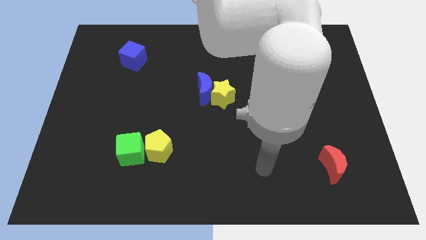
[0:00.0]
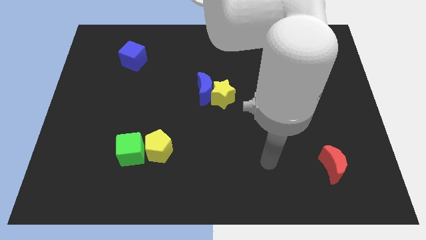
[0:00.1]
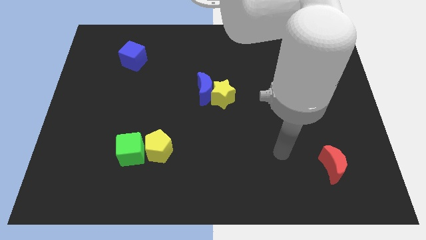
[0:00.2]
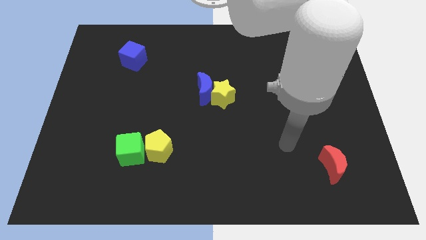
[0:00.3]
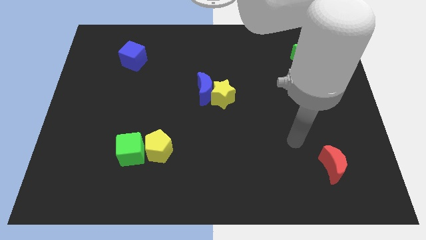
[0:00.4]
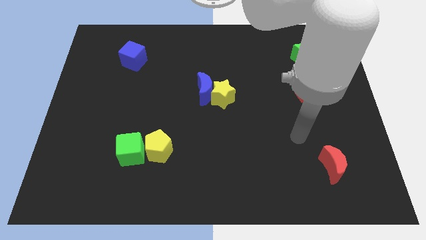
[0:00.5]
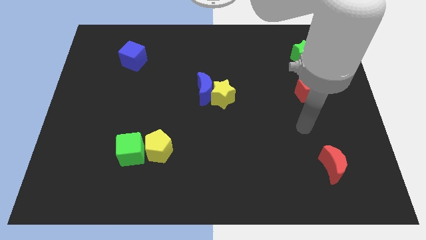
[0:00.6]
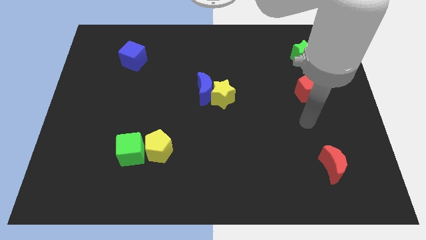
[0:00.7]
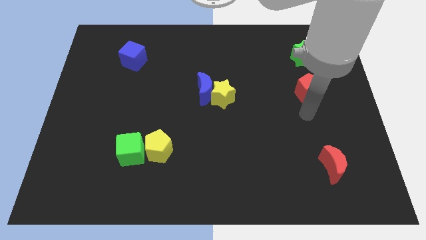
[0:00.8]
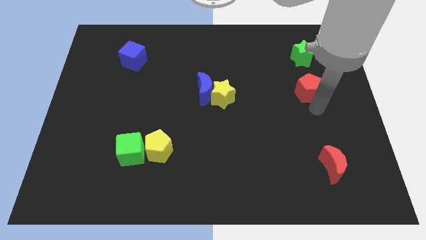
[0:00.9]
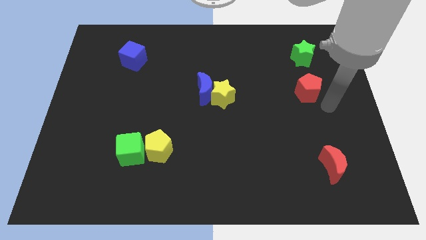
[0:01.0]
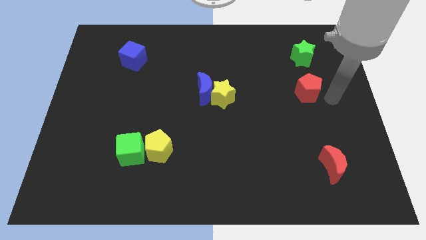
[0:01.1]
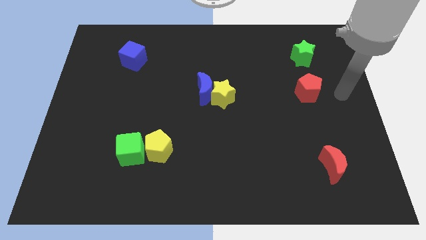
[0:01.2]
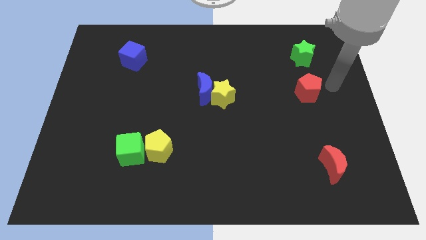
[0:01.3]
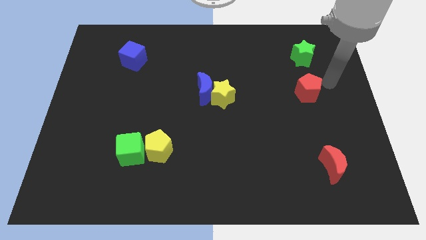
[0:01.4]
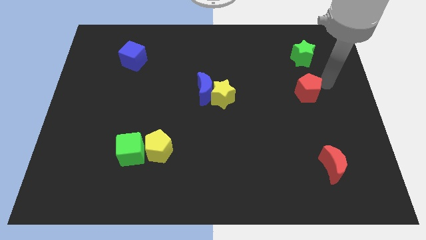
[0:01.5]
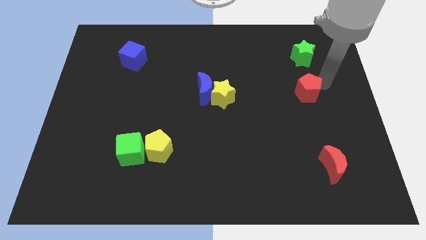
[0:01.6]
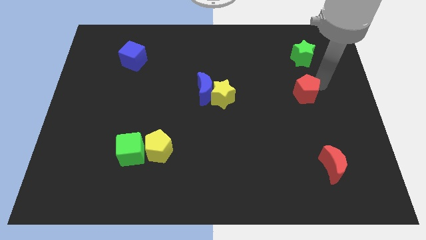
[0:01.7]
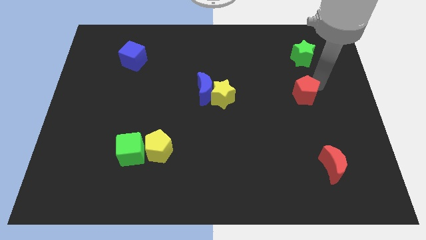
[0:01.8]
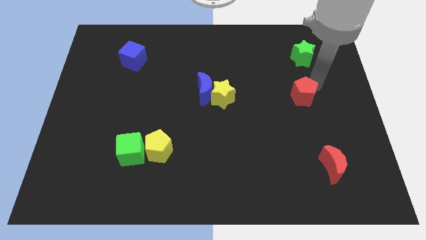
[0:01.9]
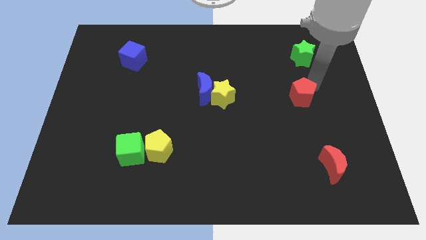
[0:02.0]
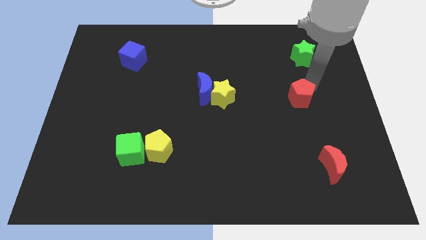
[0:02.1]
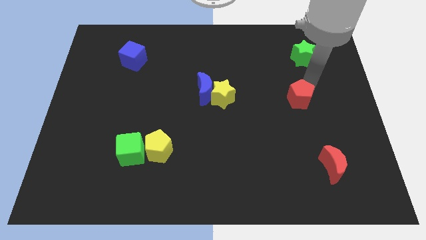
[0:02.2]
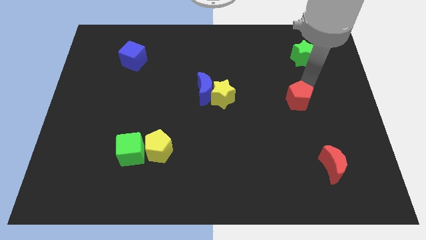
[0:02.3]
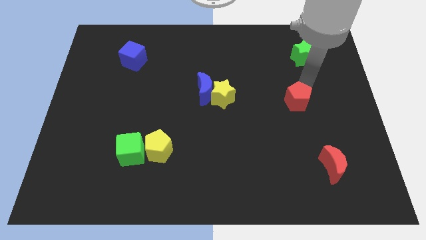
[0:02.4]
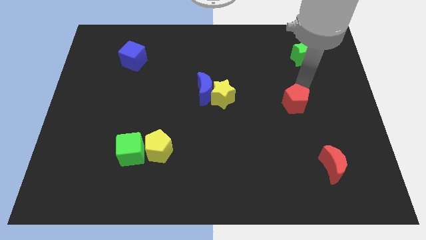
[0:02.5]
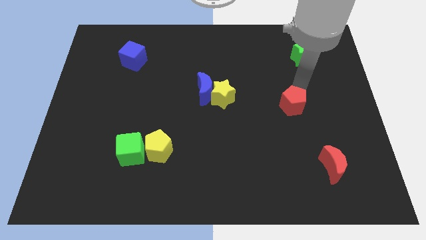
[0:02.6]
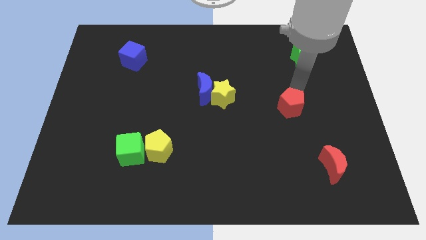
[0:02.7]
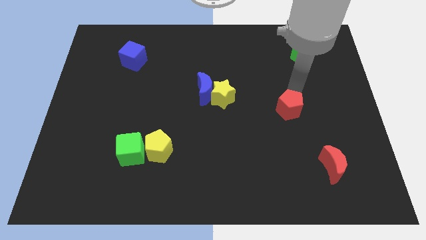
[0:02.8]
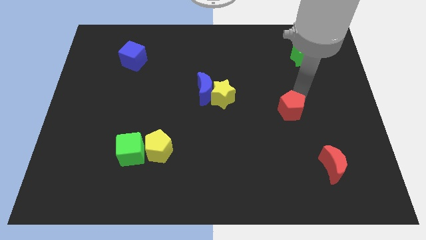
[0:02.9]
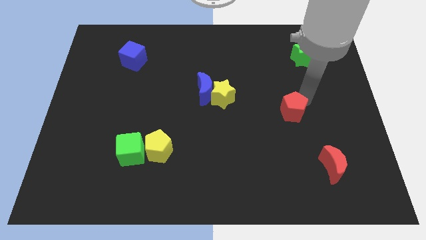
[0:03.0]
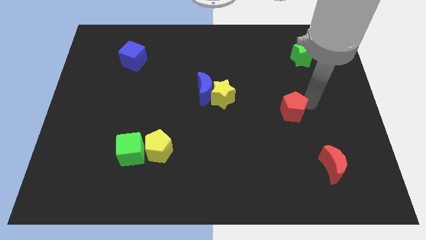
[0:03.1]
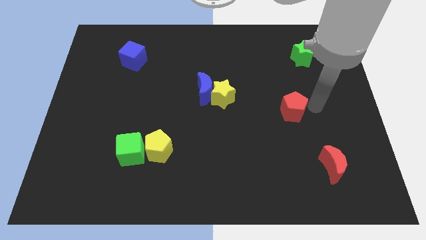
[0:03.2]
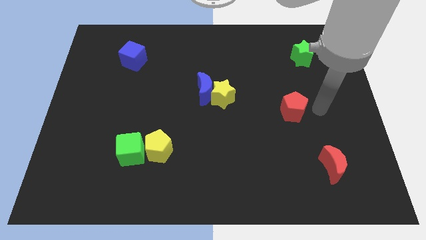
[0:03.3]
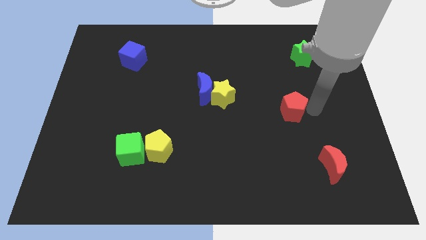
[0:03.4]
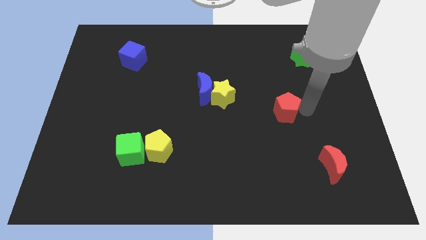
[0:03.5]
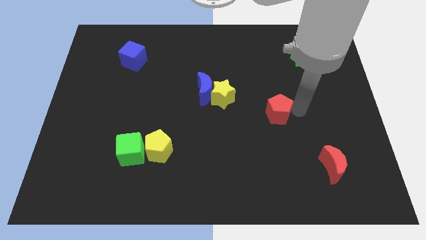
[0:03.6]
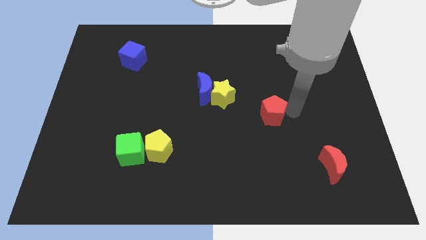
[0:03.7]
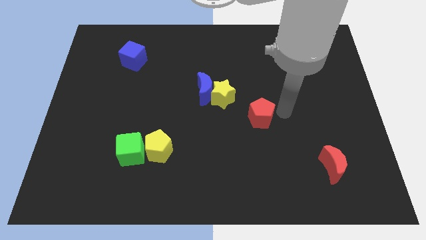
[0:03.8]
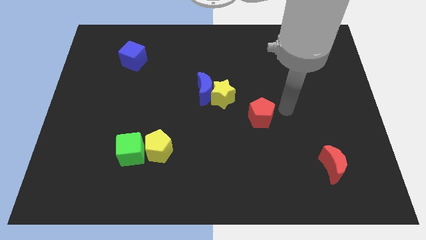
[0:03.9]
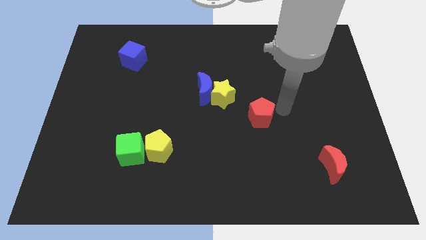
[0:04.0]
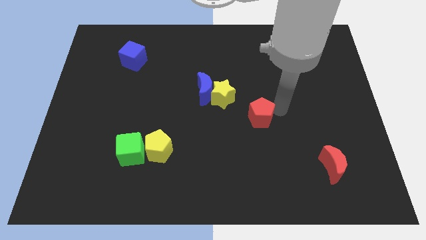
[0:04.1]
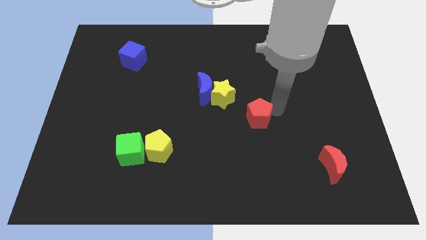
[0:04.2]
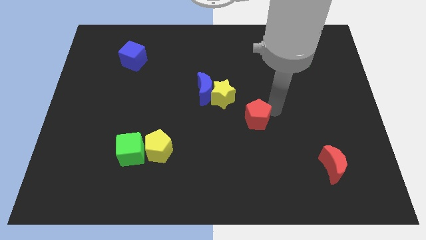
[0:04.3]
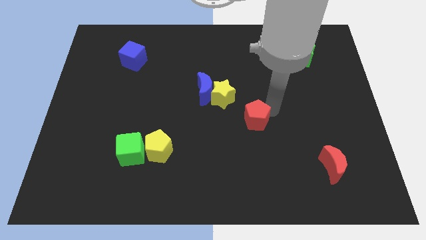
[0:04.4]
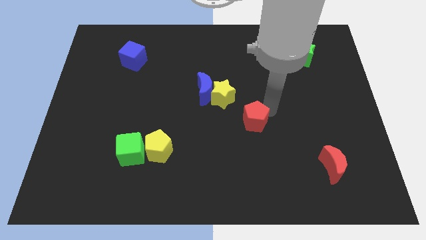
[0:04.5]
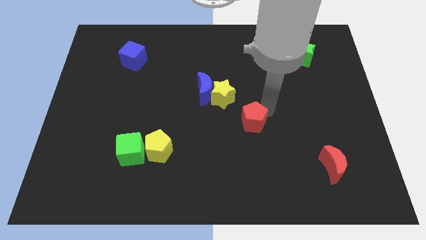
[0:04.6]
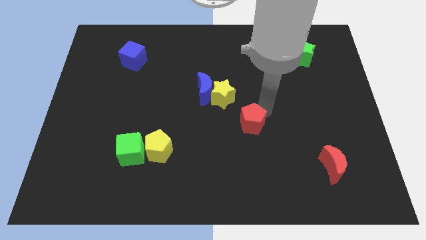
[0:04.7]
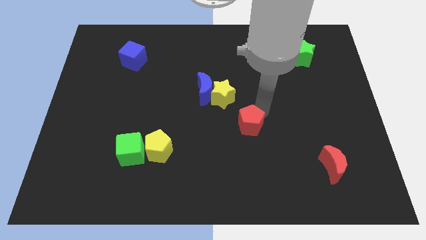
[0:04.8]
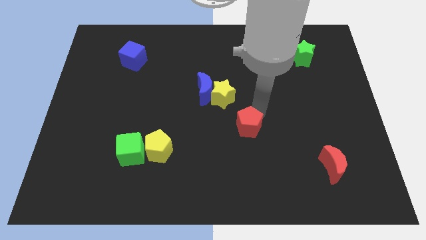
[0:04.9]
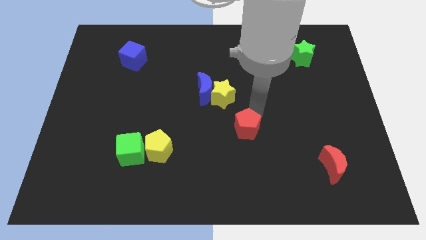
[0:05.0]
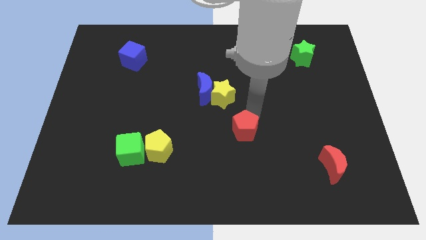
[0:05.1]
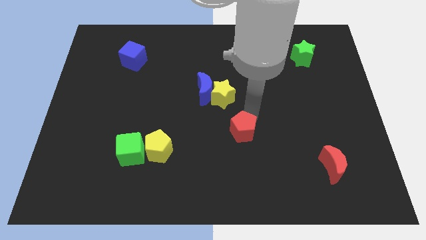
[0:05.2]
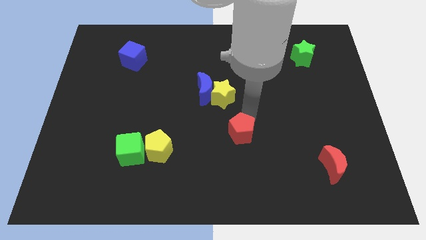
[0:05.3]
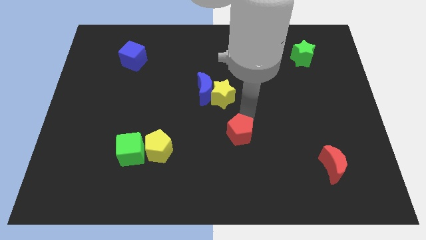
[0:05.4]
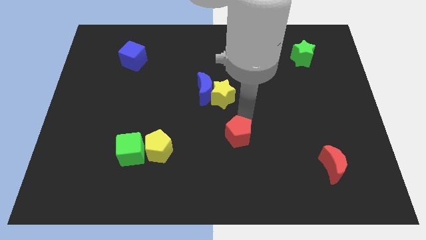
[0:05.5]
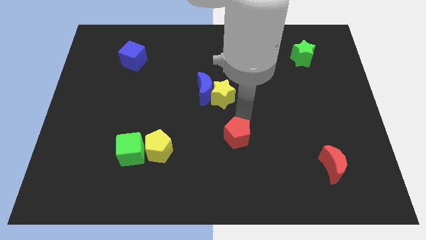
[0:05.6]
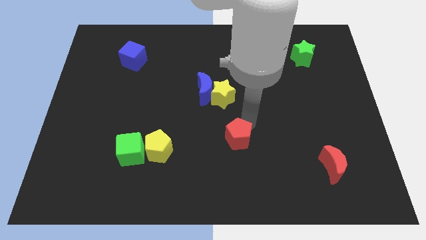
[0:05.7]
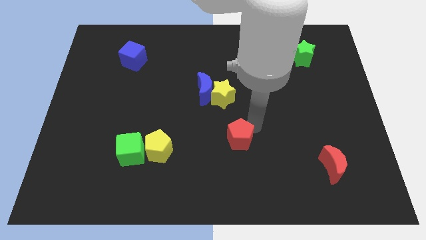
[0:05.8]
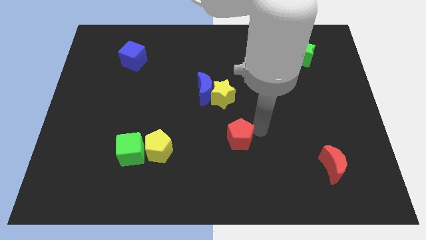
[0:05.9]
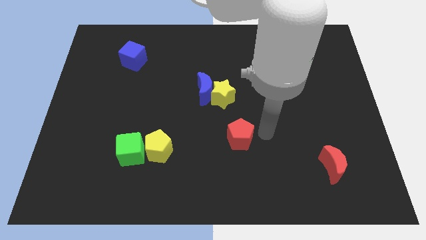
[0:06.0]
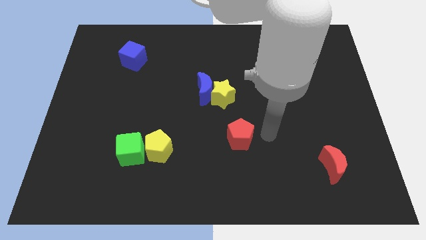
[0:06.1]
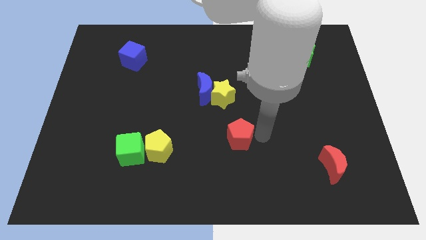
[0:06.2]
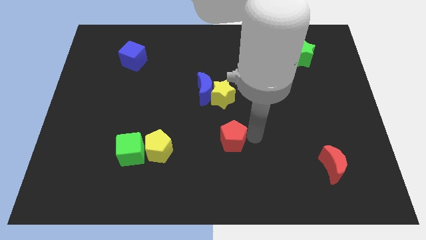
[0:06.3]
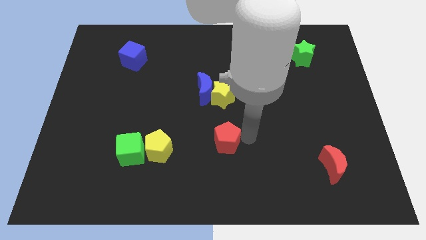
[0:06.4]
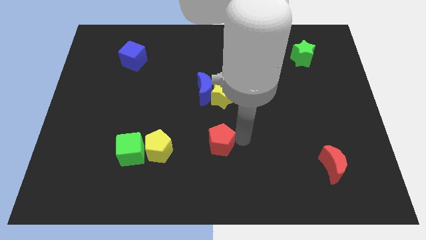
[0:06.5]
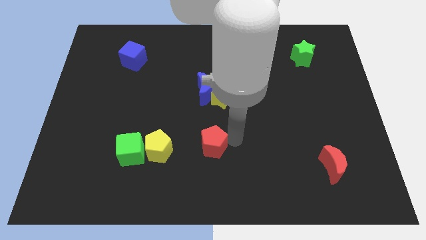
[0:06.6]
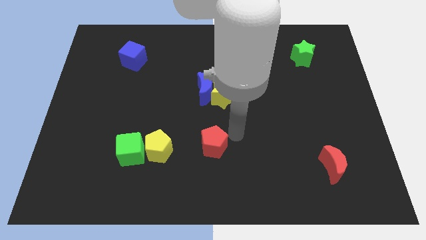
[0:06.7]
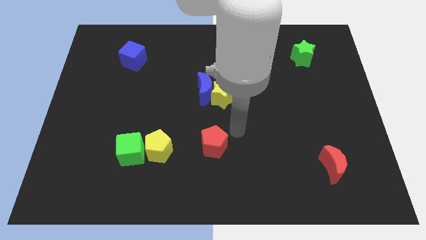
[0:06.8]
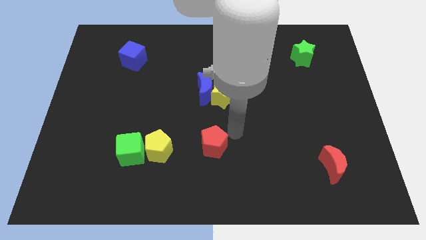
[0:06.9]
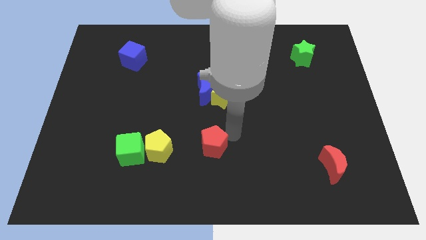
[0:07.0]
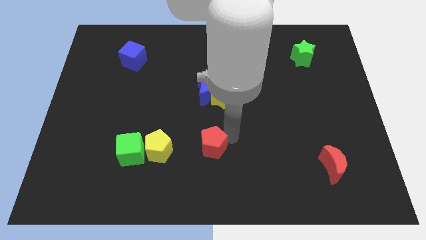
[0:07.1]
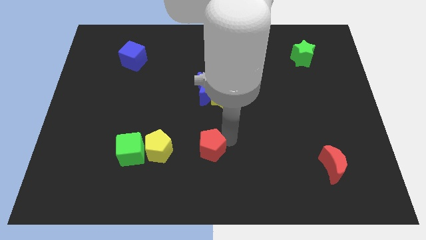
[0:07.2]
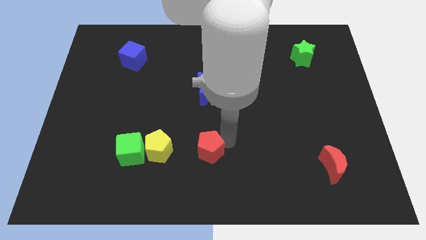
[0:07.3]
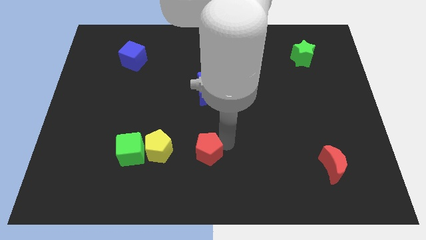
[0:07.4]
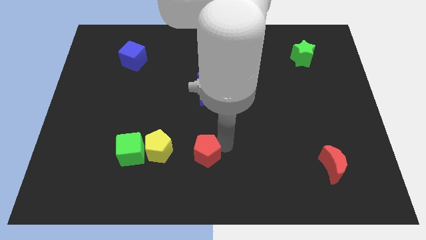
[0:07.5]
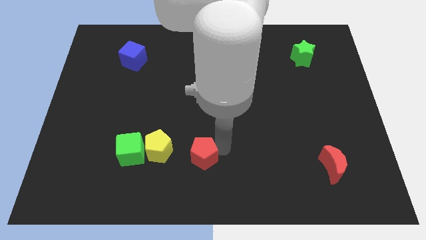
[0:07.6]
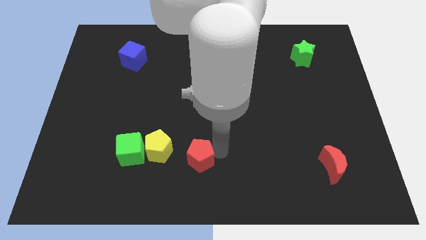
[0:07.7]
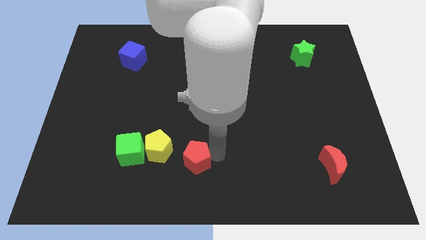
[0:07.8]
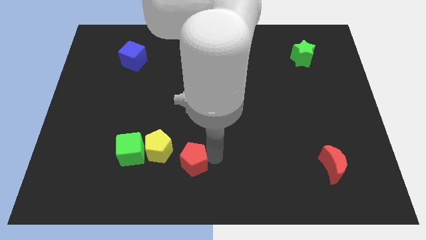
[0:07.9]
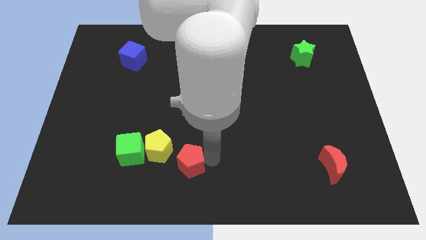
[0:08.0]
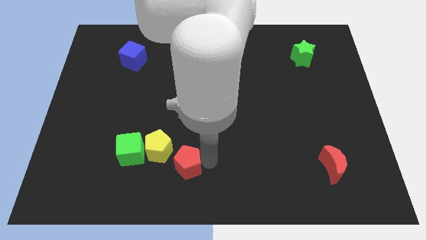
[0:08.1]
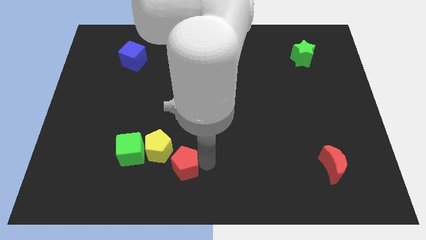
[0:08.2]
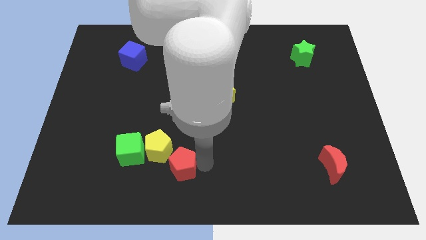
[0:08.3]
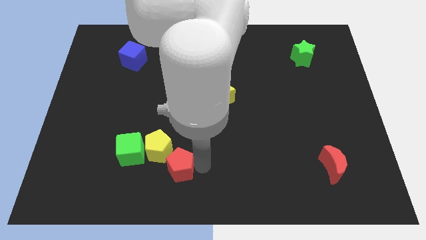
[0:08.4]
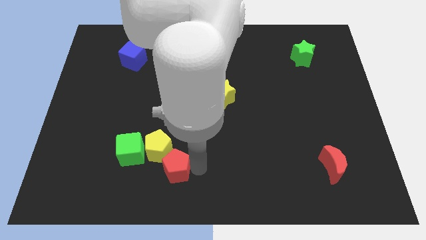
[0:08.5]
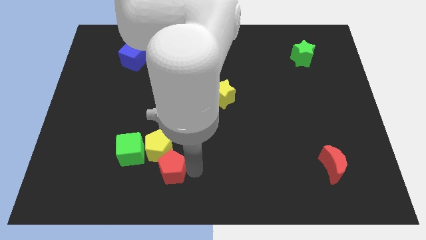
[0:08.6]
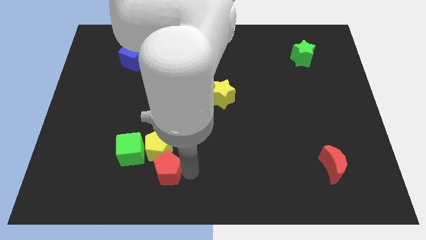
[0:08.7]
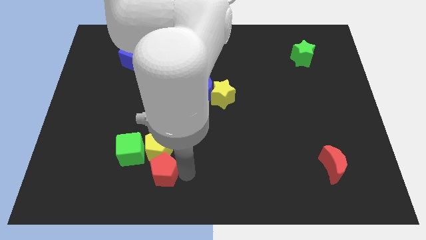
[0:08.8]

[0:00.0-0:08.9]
move the red pentagon to the bottom left of the yellow pentagon
